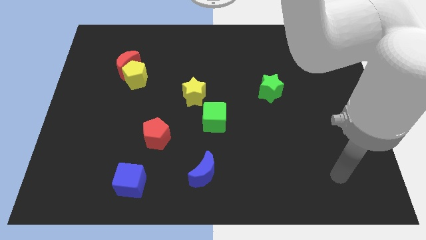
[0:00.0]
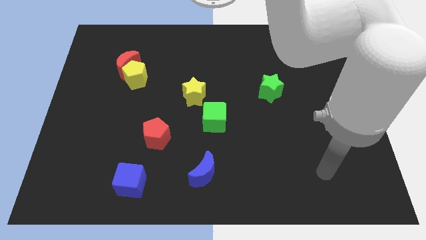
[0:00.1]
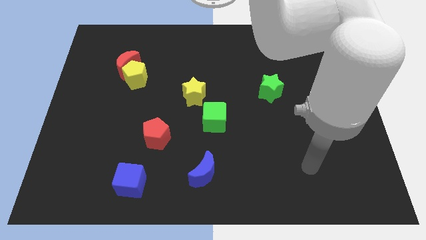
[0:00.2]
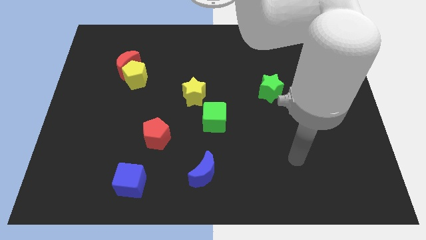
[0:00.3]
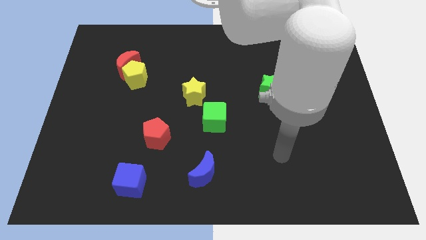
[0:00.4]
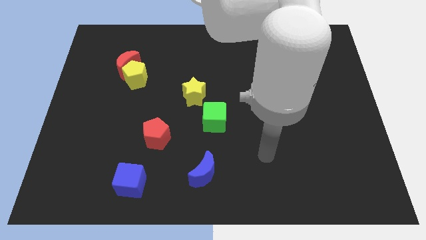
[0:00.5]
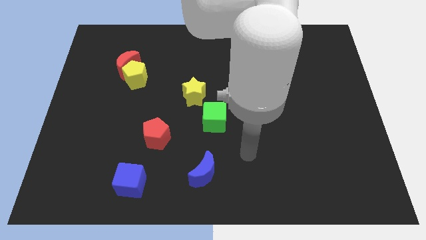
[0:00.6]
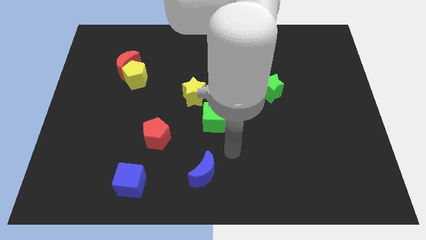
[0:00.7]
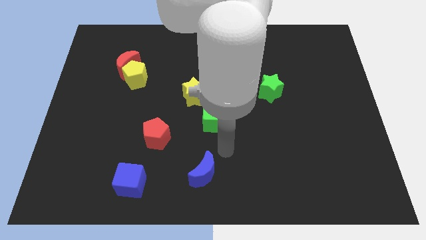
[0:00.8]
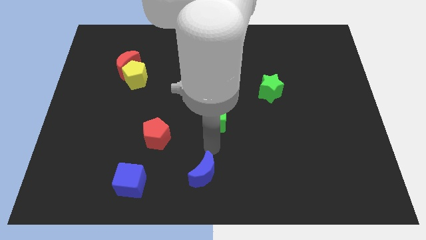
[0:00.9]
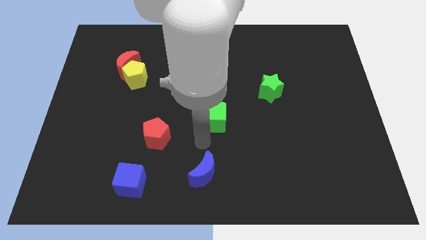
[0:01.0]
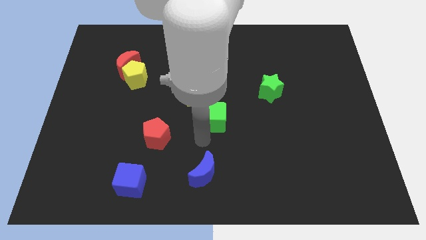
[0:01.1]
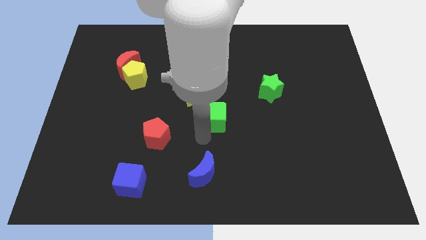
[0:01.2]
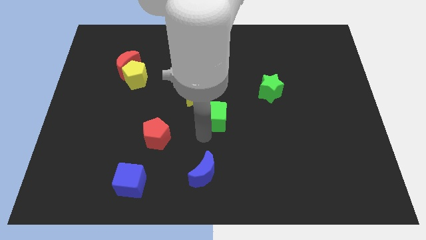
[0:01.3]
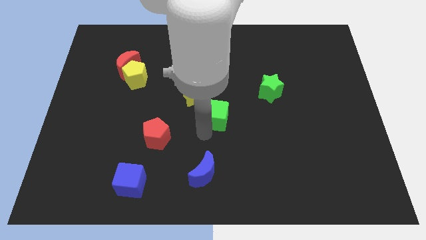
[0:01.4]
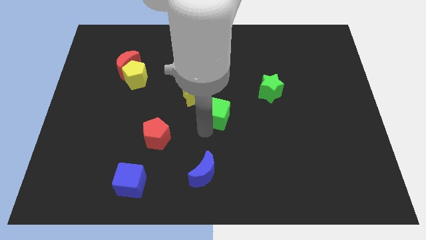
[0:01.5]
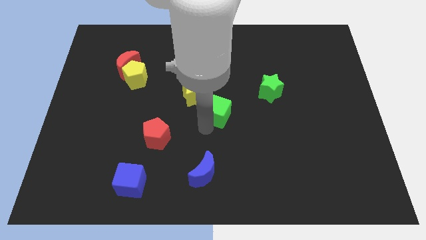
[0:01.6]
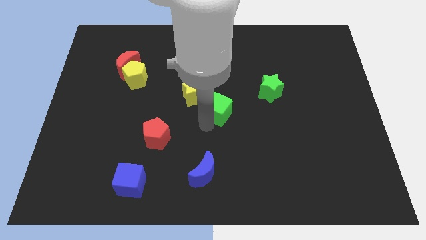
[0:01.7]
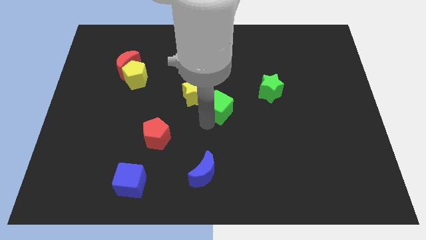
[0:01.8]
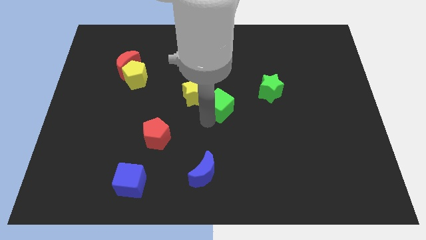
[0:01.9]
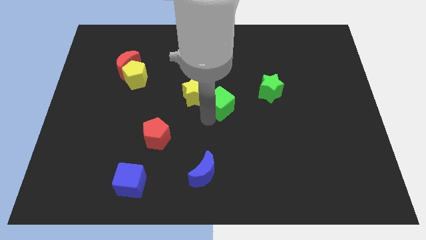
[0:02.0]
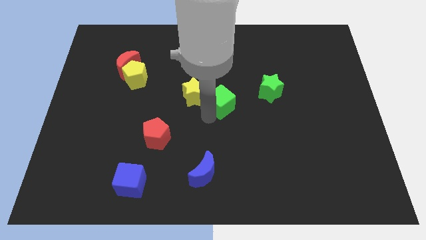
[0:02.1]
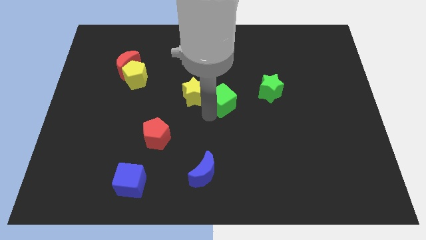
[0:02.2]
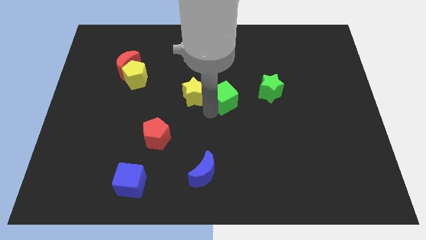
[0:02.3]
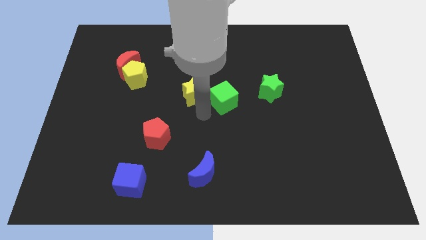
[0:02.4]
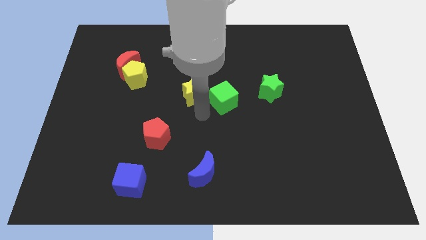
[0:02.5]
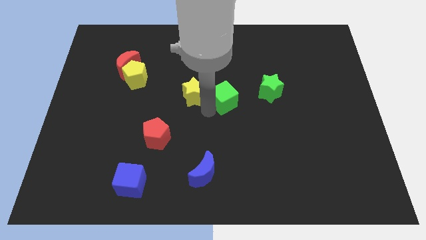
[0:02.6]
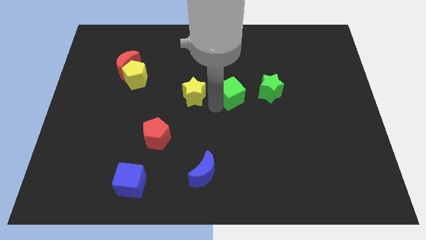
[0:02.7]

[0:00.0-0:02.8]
move the green cube upwards and to the right somewhat

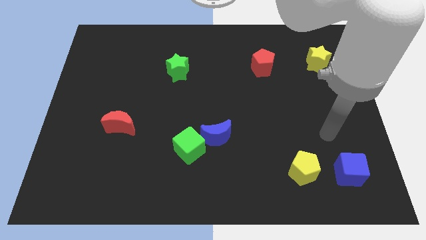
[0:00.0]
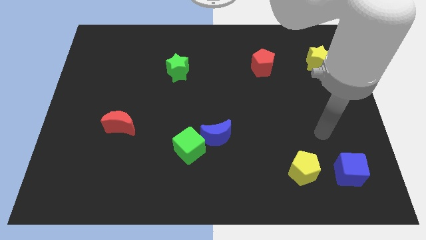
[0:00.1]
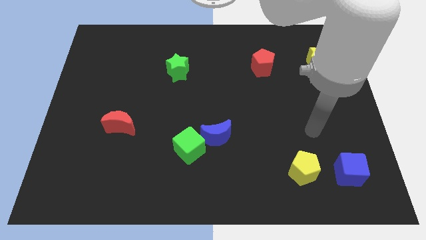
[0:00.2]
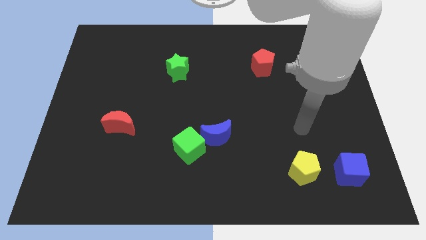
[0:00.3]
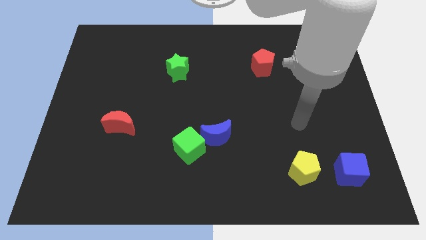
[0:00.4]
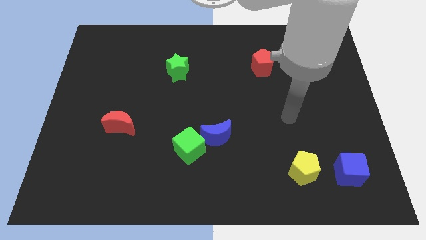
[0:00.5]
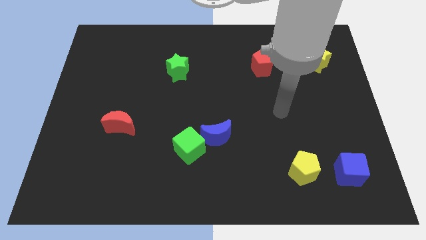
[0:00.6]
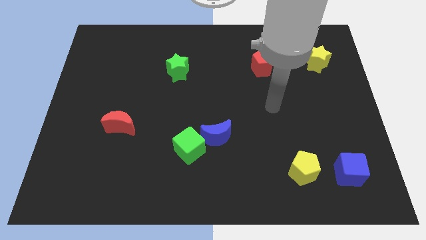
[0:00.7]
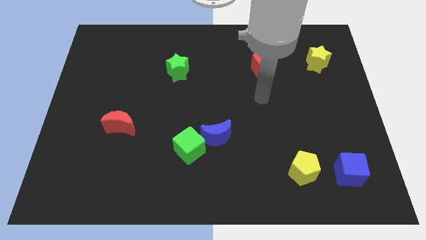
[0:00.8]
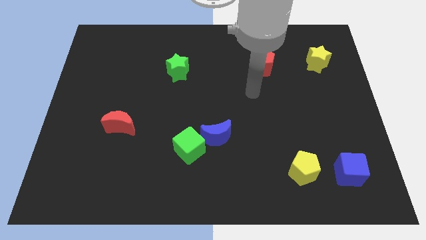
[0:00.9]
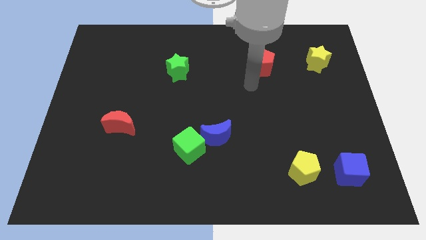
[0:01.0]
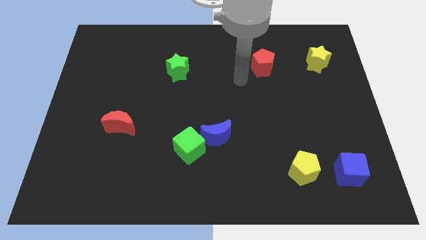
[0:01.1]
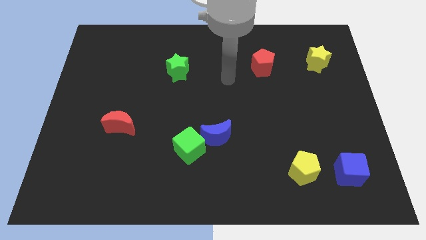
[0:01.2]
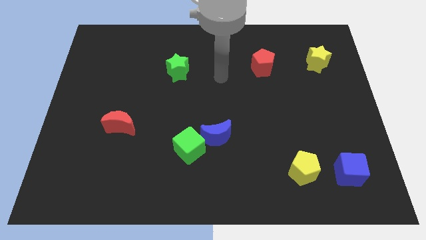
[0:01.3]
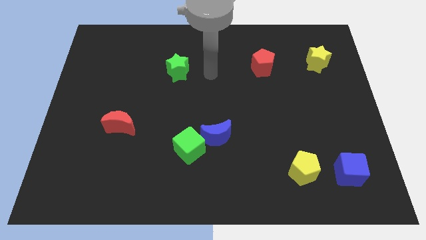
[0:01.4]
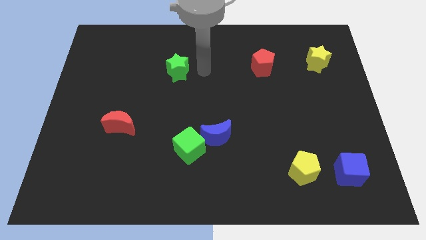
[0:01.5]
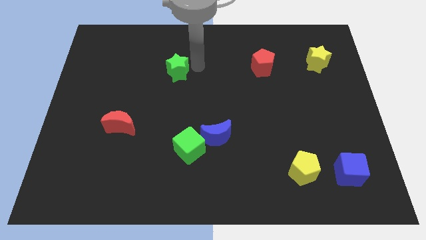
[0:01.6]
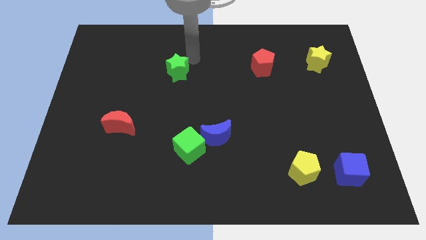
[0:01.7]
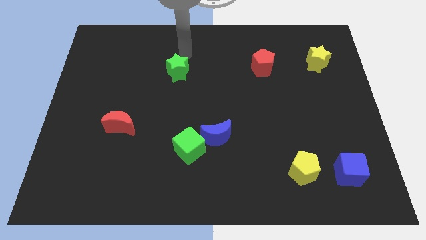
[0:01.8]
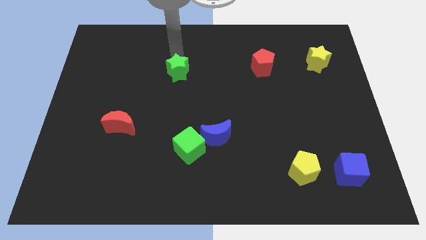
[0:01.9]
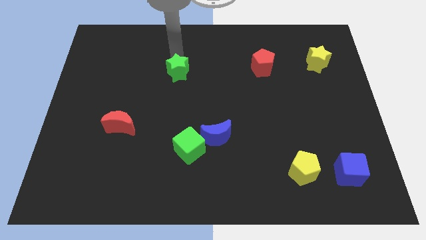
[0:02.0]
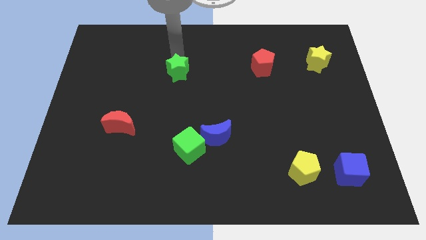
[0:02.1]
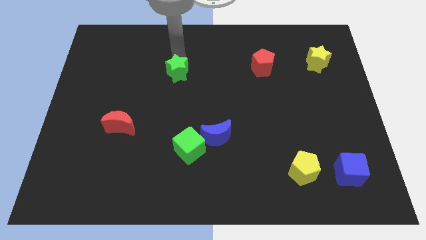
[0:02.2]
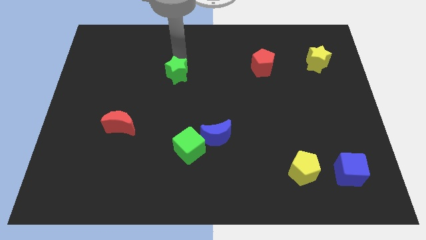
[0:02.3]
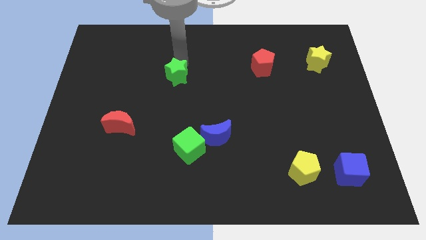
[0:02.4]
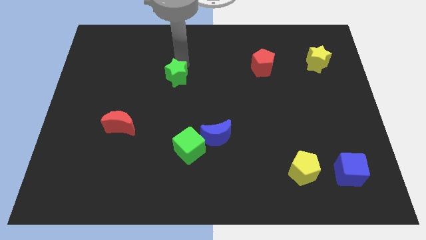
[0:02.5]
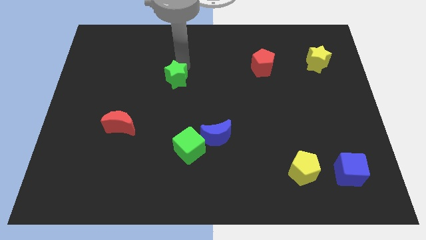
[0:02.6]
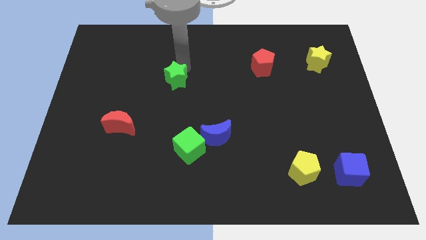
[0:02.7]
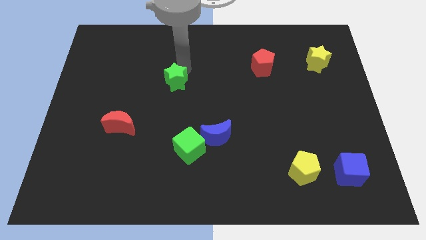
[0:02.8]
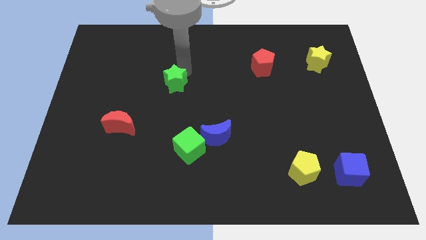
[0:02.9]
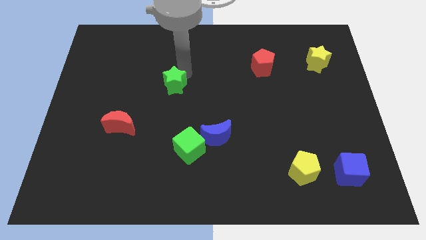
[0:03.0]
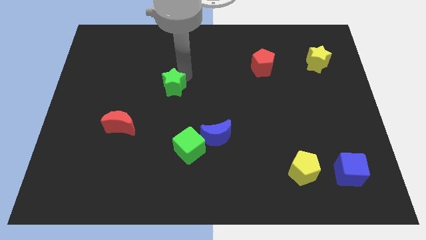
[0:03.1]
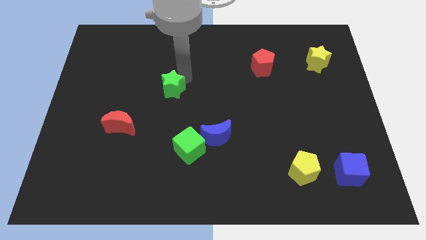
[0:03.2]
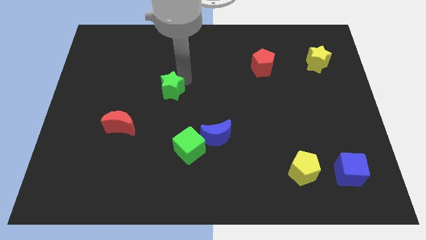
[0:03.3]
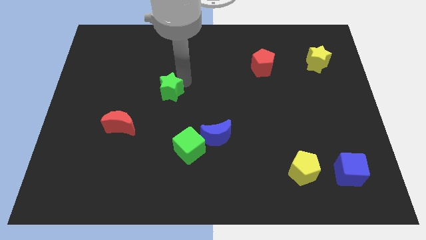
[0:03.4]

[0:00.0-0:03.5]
slightly push the green star downwards

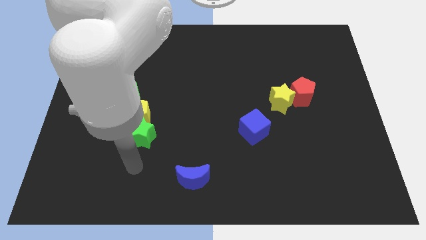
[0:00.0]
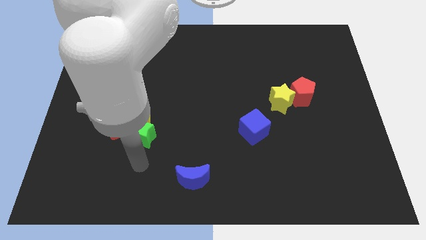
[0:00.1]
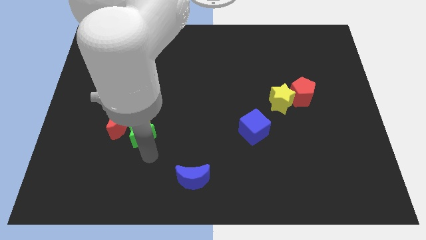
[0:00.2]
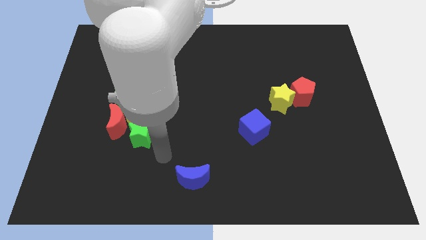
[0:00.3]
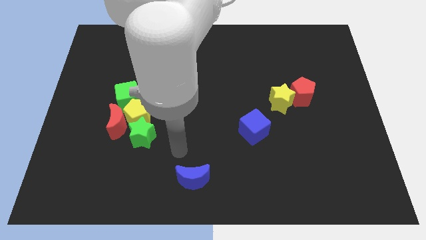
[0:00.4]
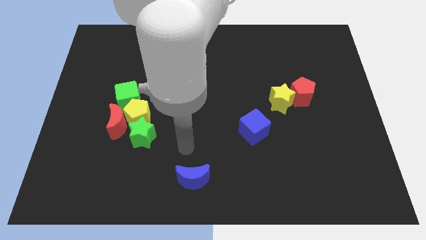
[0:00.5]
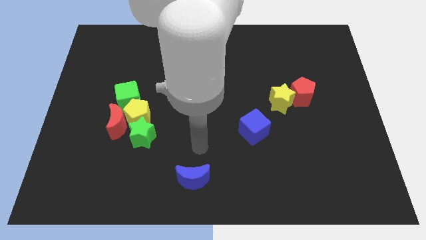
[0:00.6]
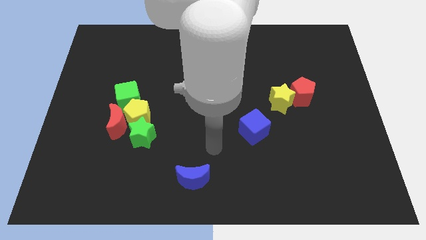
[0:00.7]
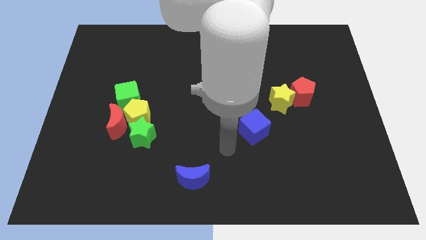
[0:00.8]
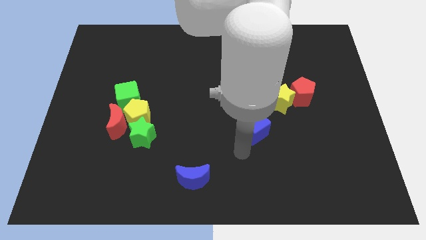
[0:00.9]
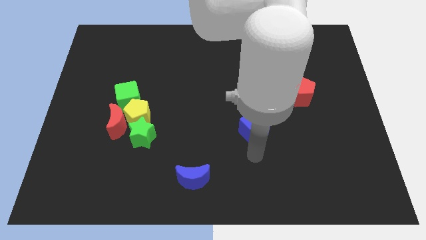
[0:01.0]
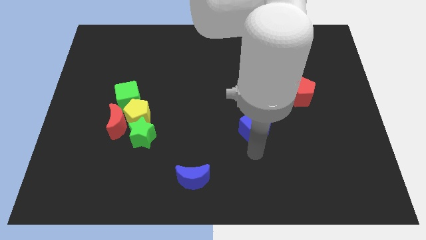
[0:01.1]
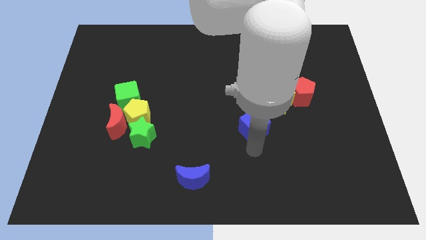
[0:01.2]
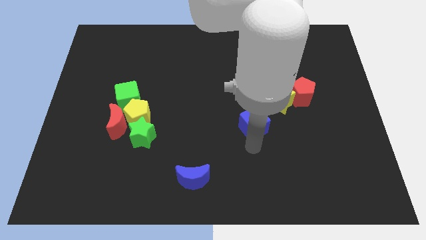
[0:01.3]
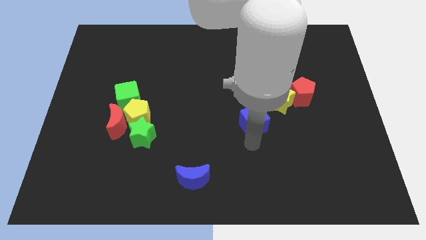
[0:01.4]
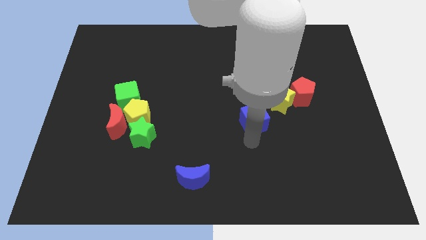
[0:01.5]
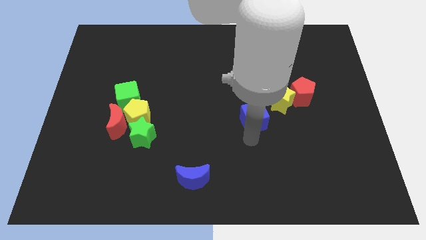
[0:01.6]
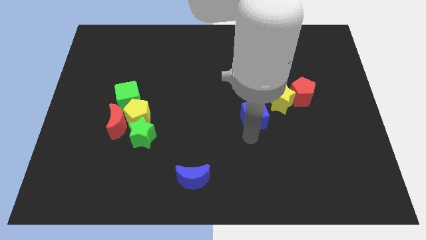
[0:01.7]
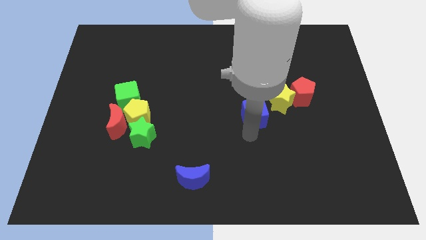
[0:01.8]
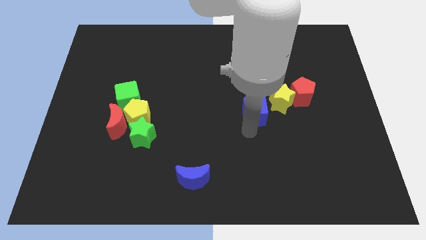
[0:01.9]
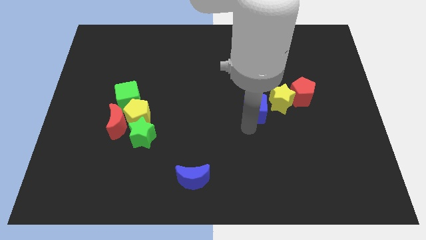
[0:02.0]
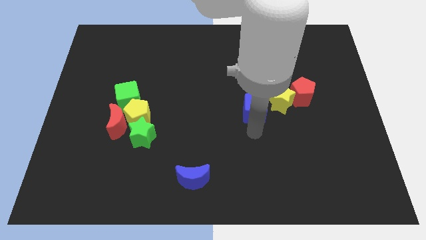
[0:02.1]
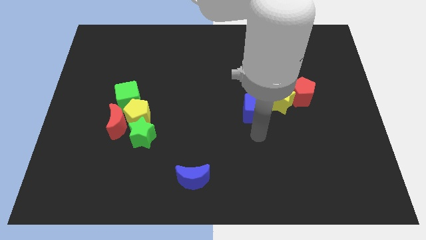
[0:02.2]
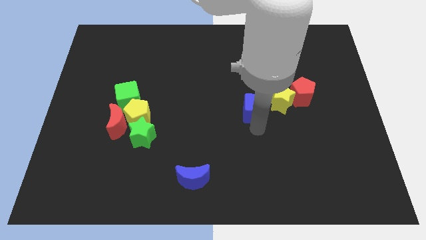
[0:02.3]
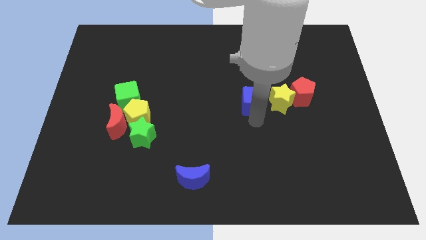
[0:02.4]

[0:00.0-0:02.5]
push the blue cube upwards somewhat
